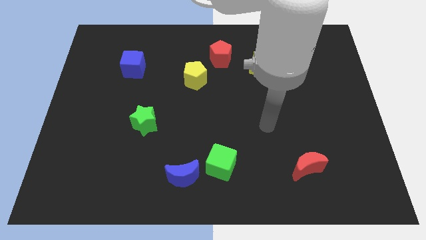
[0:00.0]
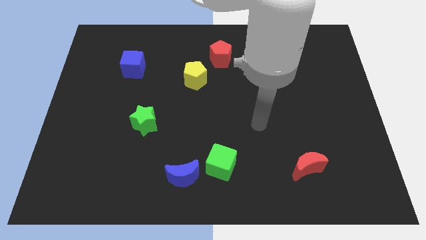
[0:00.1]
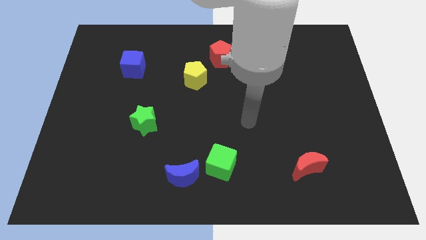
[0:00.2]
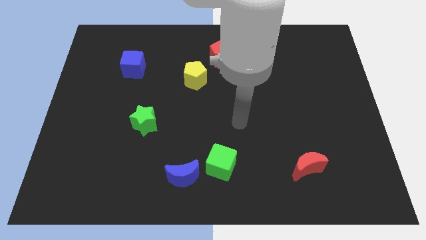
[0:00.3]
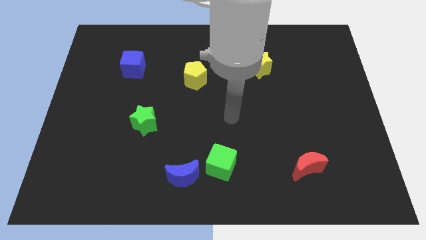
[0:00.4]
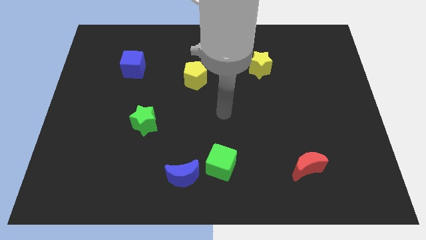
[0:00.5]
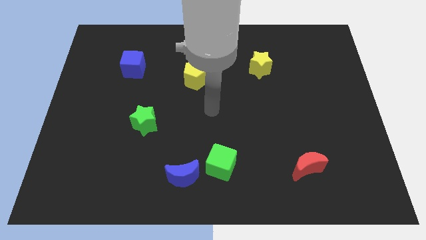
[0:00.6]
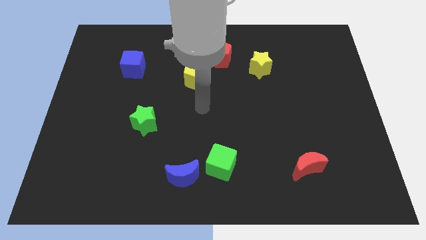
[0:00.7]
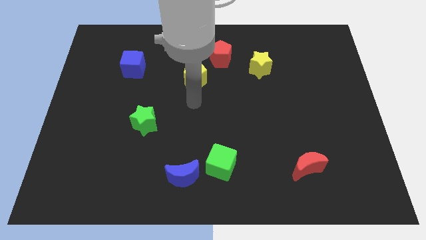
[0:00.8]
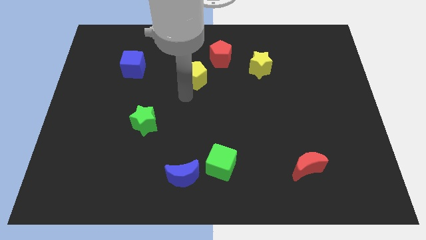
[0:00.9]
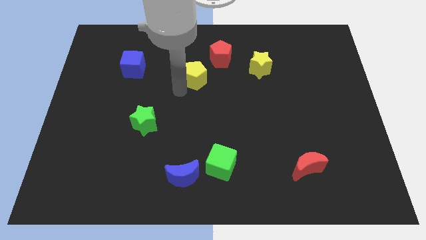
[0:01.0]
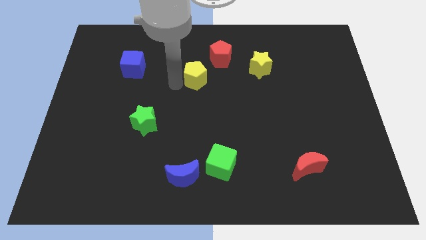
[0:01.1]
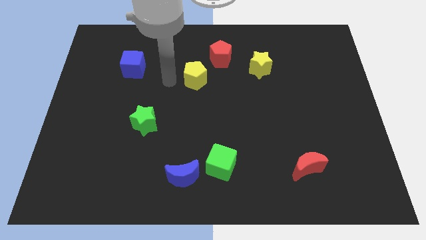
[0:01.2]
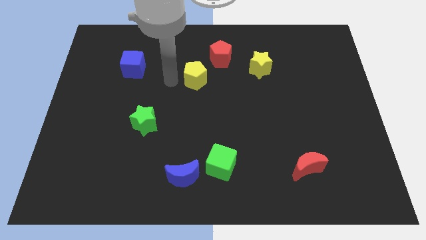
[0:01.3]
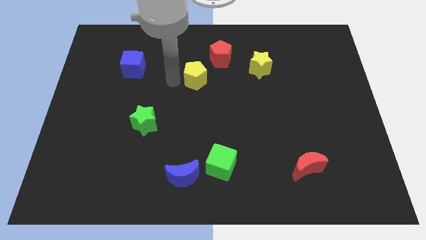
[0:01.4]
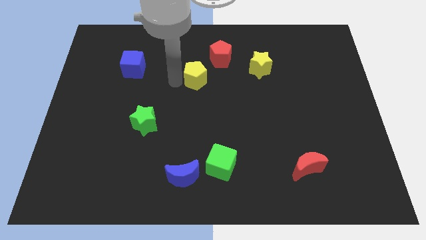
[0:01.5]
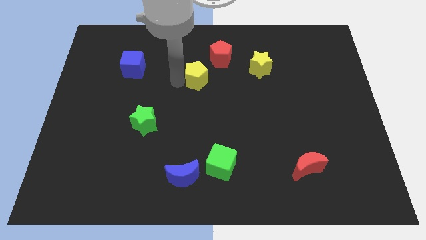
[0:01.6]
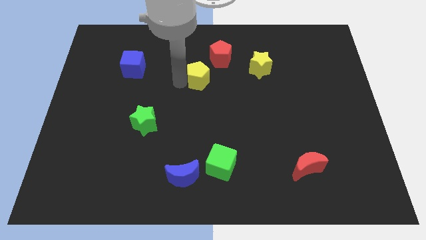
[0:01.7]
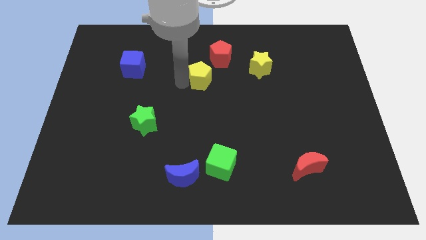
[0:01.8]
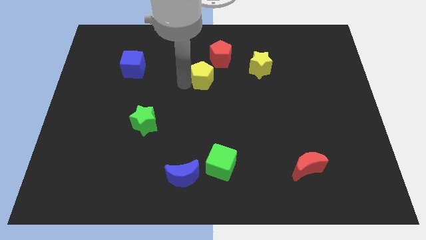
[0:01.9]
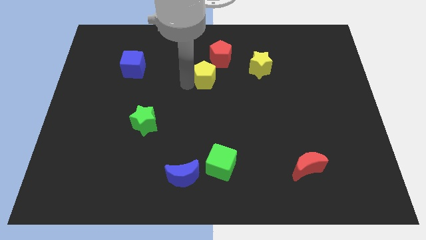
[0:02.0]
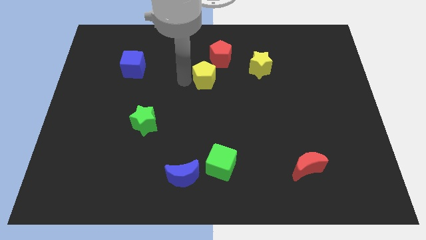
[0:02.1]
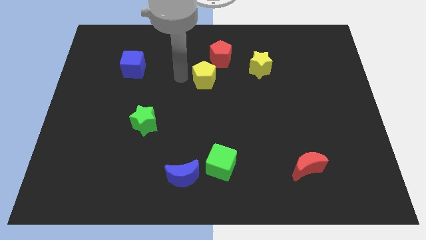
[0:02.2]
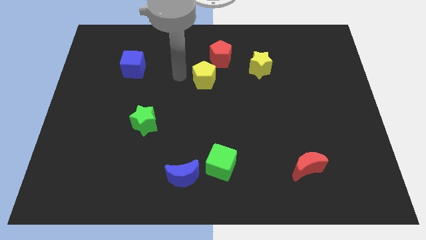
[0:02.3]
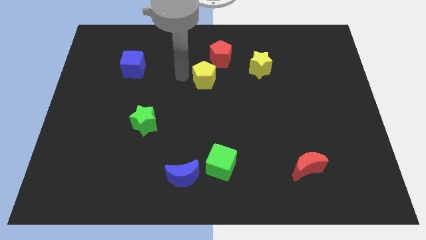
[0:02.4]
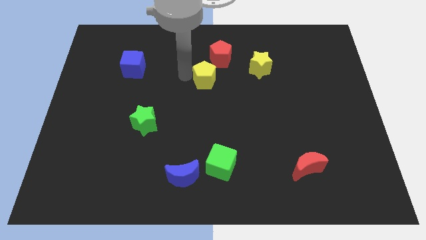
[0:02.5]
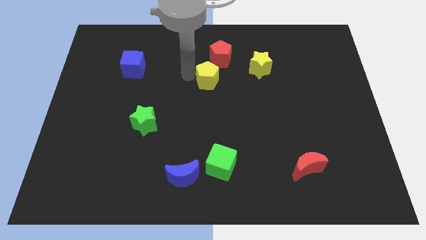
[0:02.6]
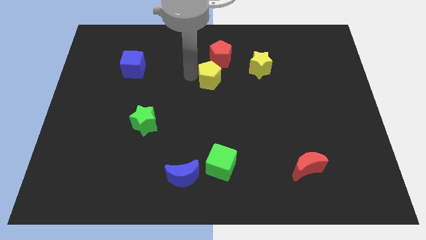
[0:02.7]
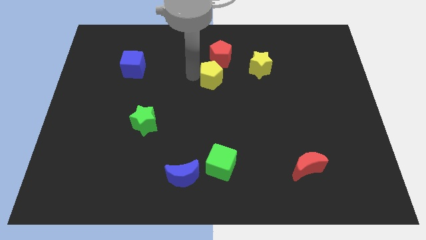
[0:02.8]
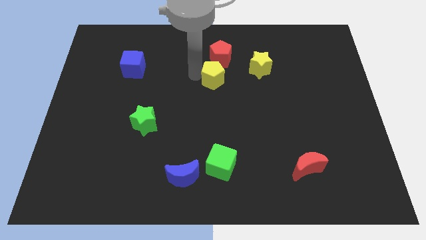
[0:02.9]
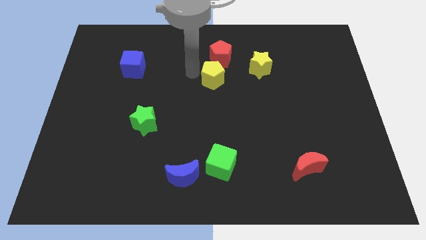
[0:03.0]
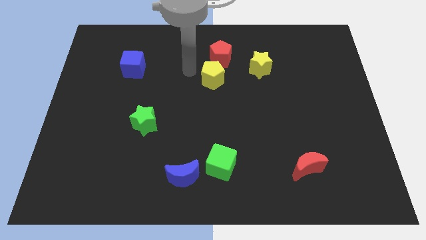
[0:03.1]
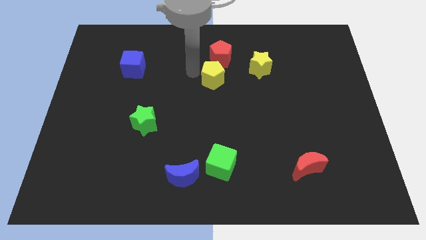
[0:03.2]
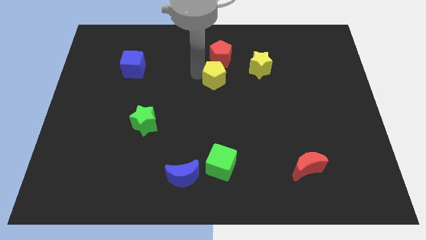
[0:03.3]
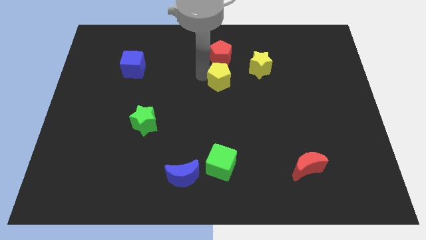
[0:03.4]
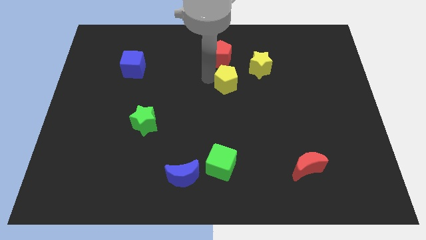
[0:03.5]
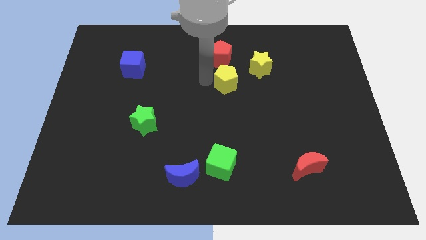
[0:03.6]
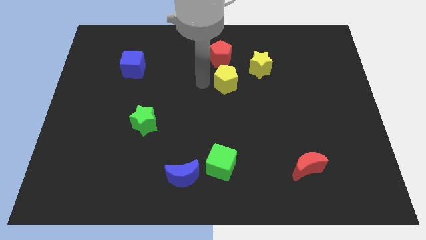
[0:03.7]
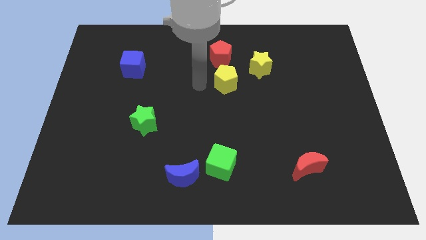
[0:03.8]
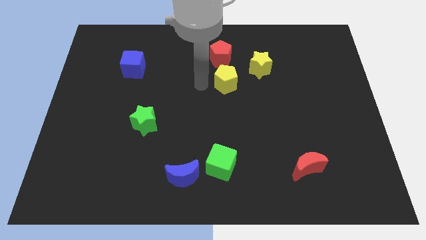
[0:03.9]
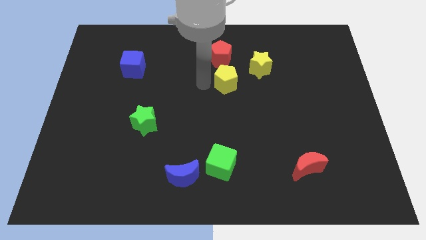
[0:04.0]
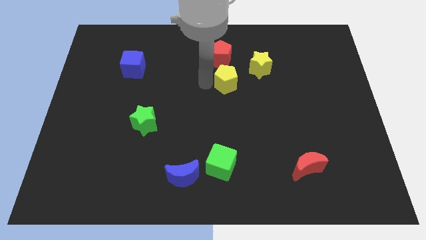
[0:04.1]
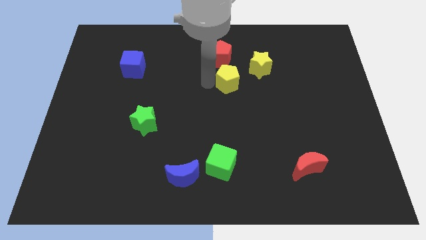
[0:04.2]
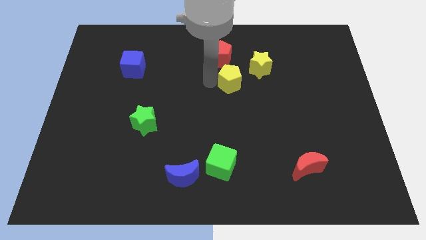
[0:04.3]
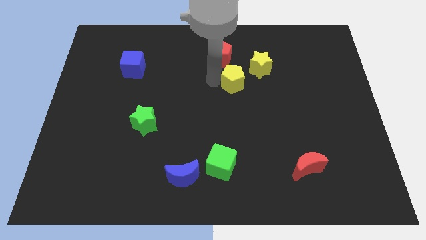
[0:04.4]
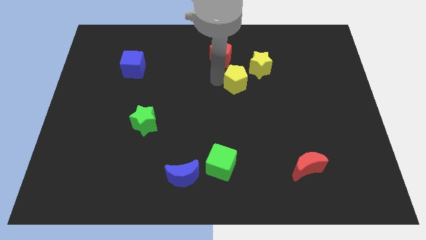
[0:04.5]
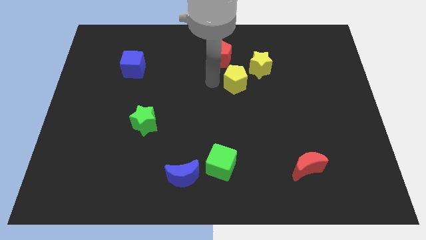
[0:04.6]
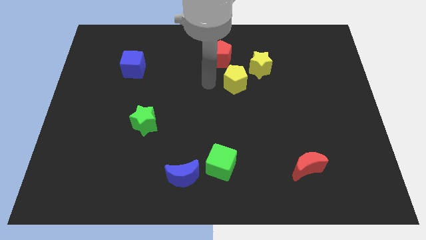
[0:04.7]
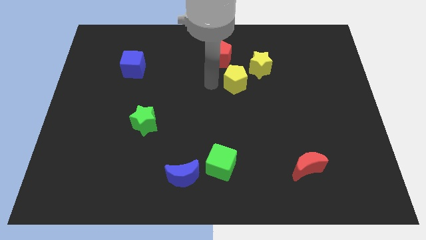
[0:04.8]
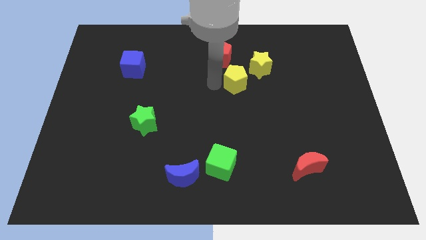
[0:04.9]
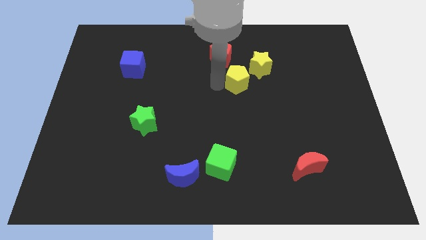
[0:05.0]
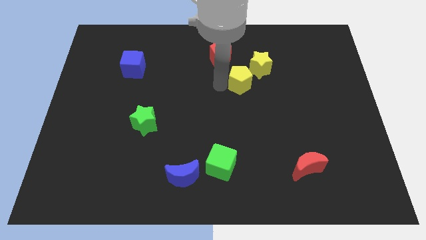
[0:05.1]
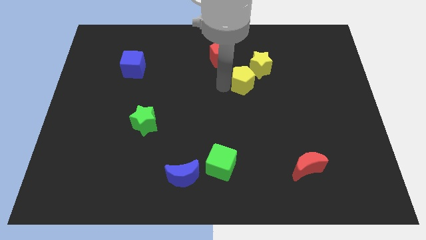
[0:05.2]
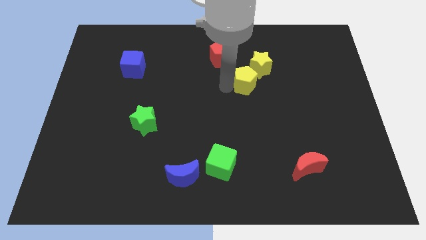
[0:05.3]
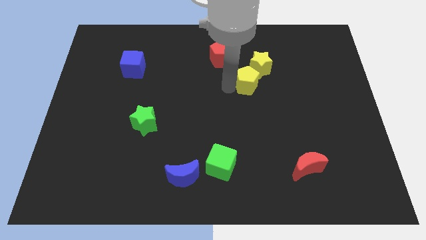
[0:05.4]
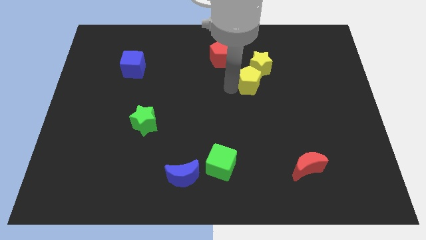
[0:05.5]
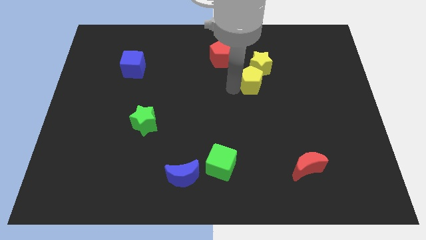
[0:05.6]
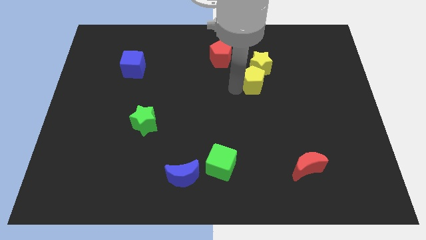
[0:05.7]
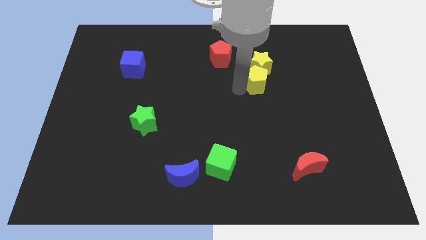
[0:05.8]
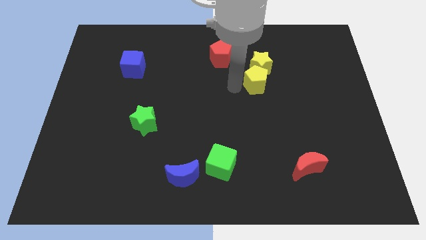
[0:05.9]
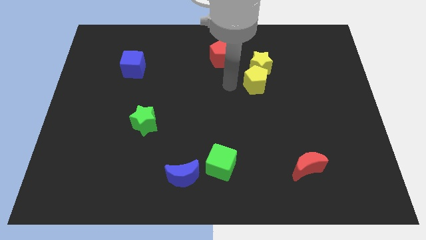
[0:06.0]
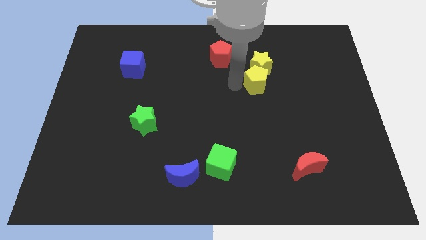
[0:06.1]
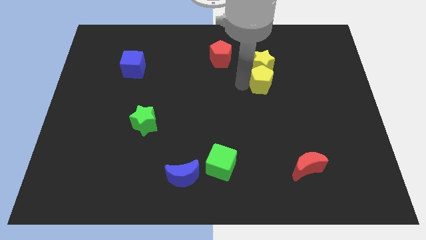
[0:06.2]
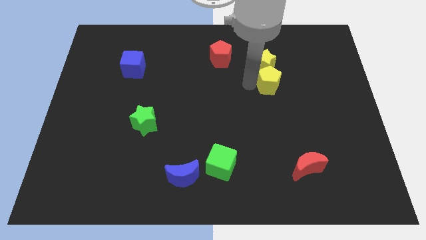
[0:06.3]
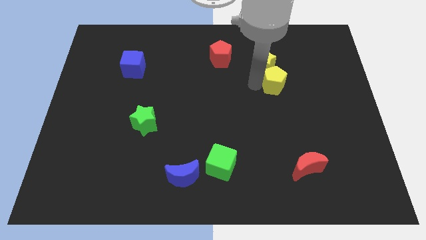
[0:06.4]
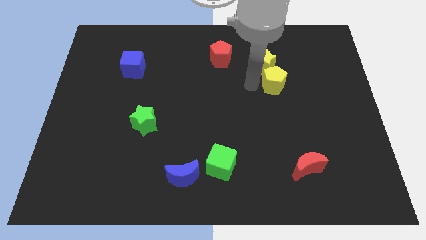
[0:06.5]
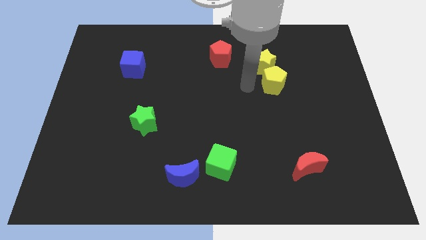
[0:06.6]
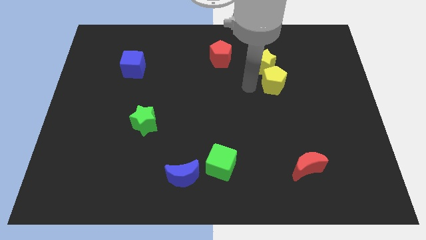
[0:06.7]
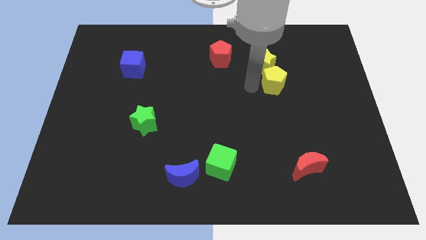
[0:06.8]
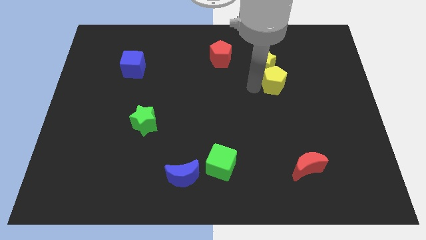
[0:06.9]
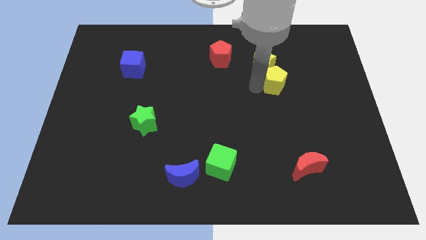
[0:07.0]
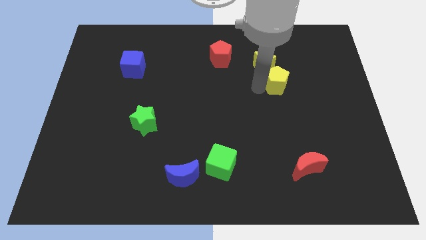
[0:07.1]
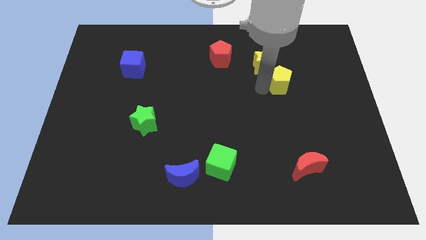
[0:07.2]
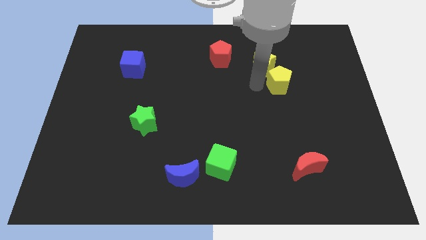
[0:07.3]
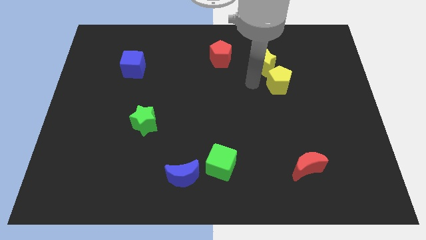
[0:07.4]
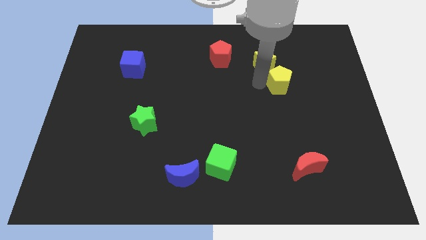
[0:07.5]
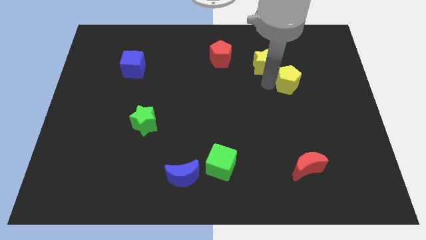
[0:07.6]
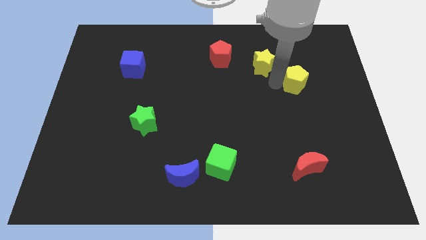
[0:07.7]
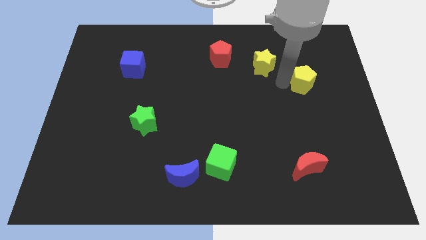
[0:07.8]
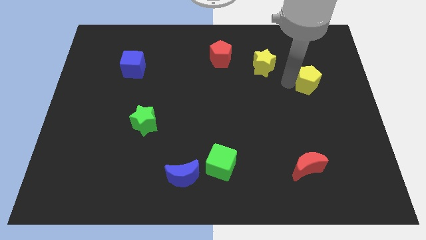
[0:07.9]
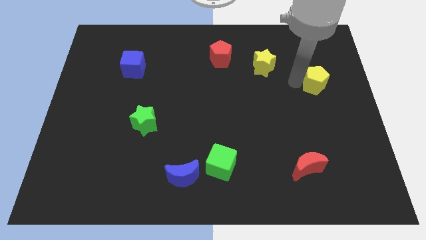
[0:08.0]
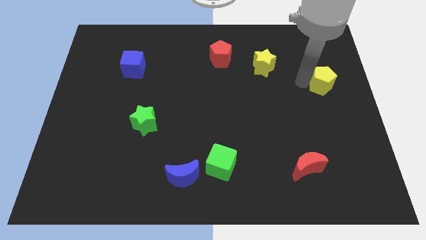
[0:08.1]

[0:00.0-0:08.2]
slide the yellow pentagon to the center right
